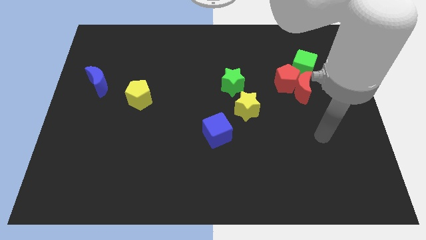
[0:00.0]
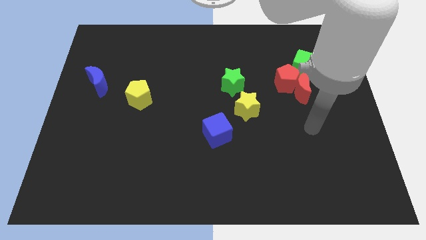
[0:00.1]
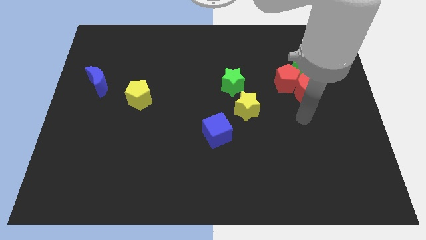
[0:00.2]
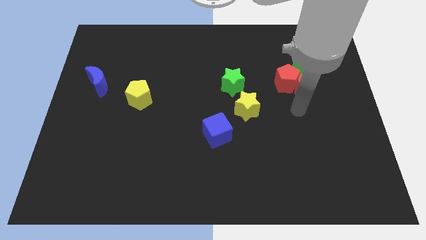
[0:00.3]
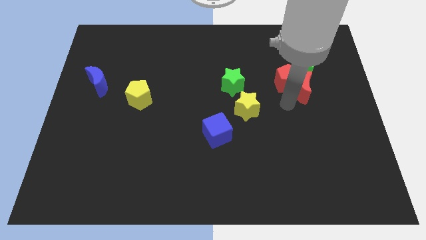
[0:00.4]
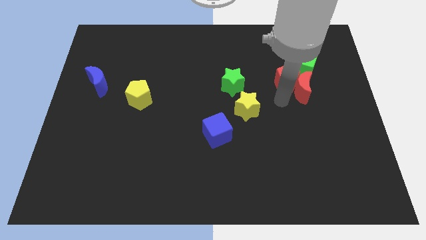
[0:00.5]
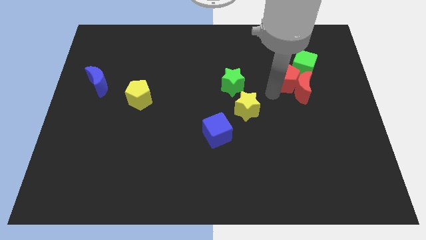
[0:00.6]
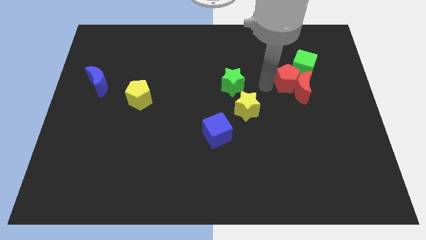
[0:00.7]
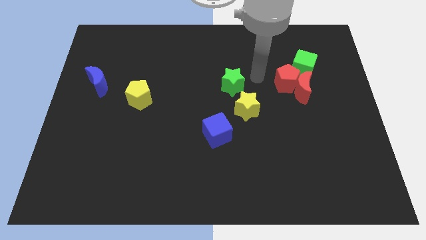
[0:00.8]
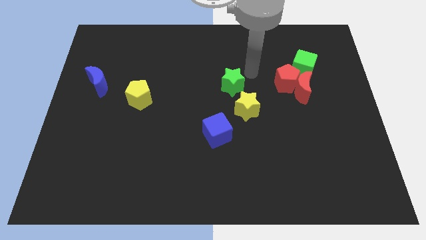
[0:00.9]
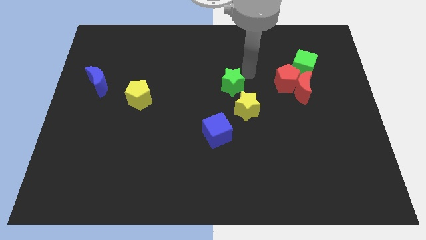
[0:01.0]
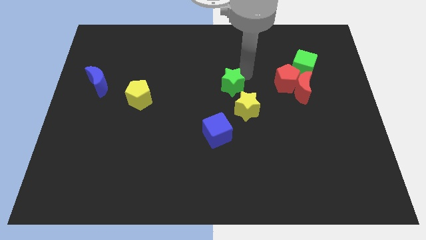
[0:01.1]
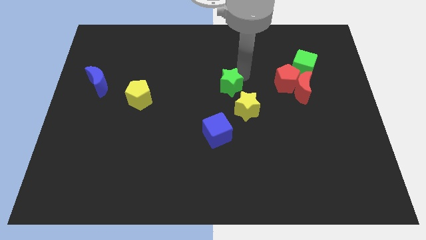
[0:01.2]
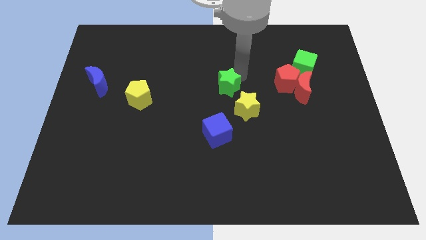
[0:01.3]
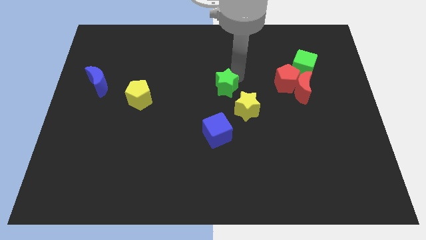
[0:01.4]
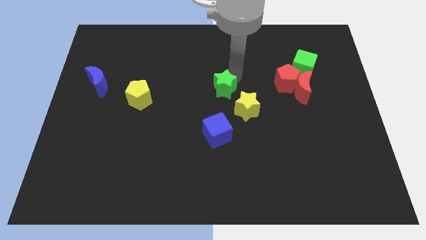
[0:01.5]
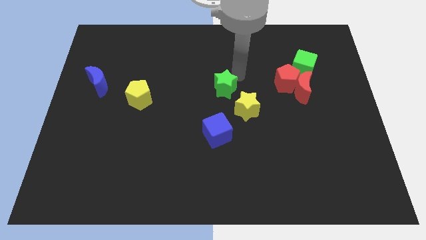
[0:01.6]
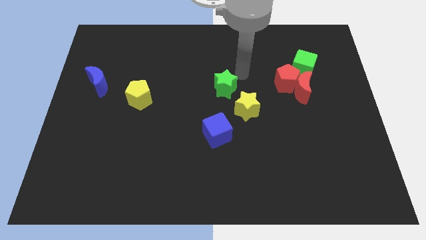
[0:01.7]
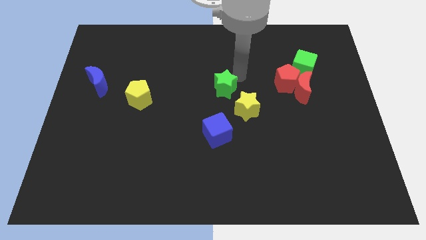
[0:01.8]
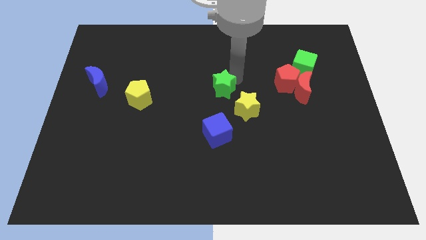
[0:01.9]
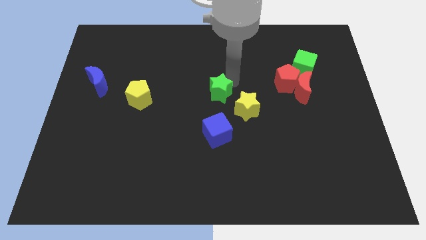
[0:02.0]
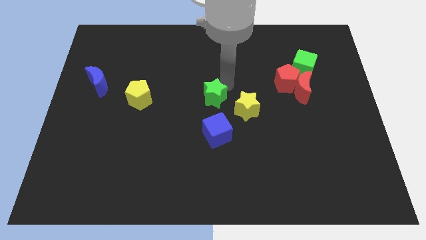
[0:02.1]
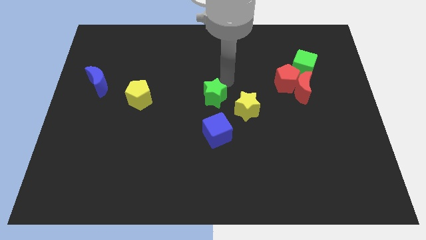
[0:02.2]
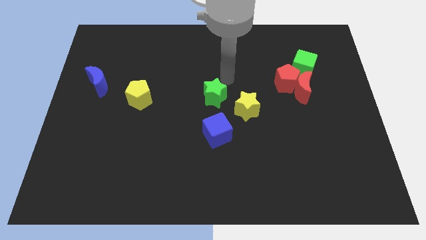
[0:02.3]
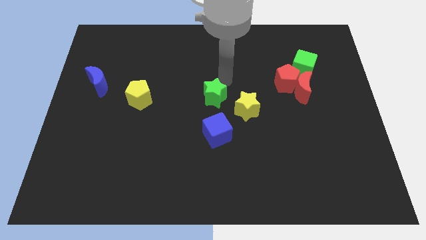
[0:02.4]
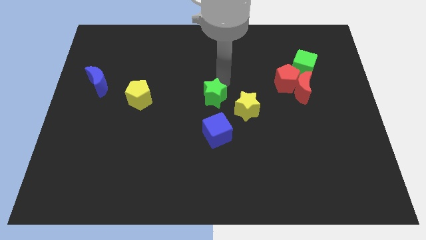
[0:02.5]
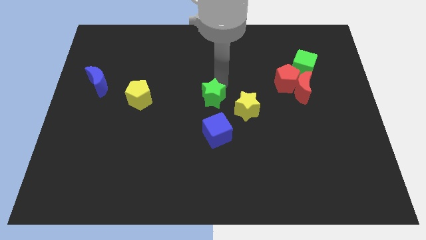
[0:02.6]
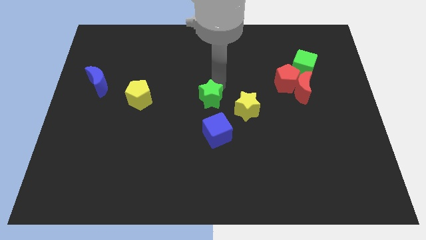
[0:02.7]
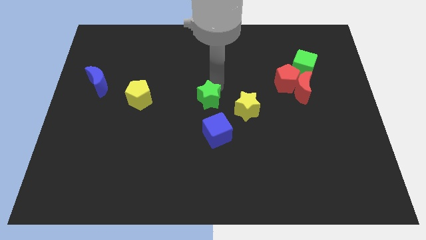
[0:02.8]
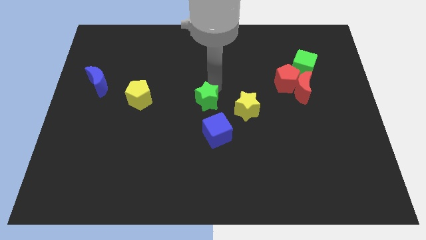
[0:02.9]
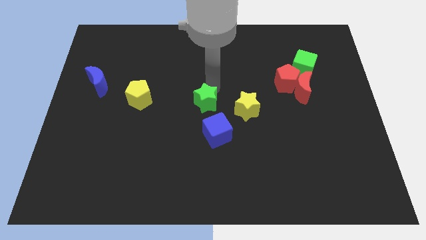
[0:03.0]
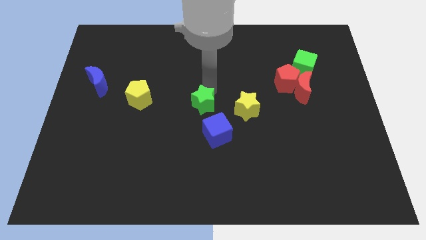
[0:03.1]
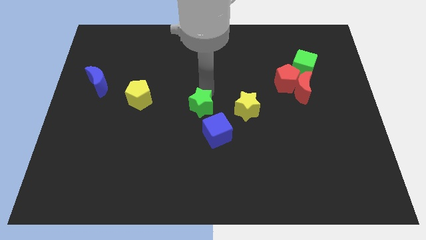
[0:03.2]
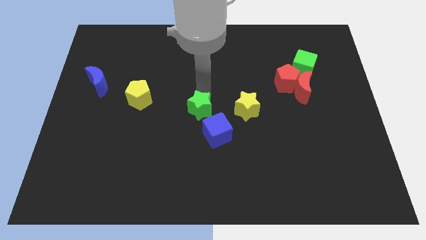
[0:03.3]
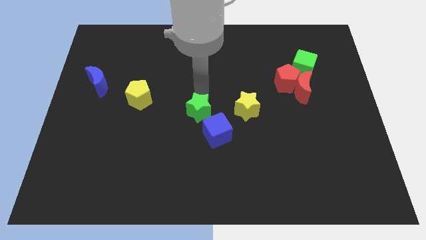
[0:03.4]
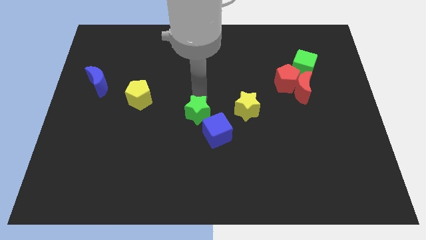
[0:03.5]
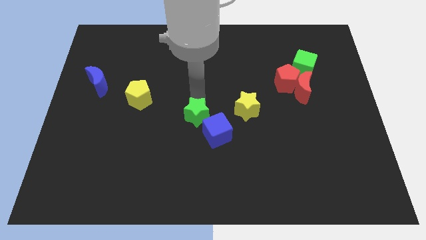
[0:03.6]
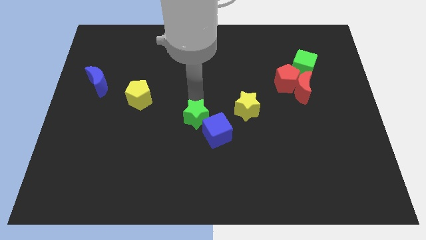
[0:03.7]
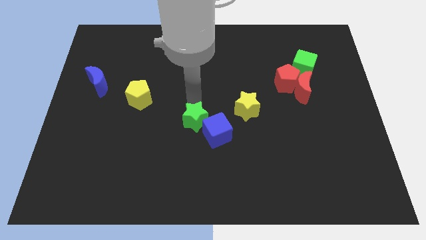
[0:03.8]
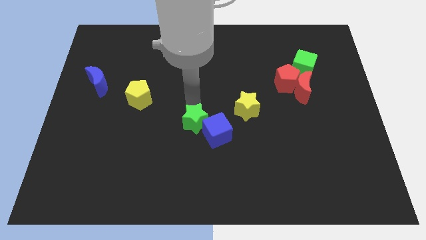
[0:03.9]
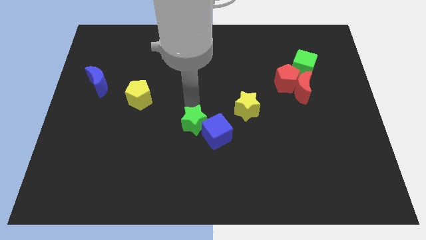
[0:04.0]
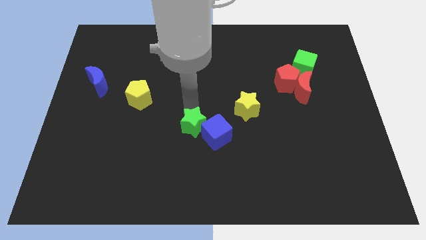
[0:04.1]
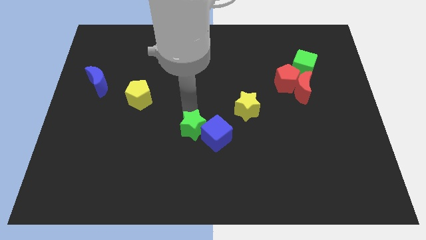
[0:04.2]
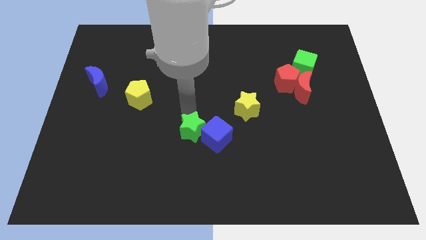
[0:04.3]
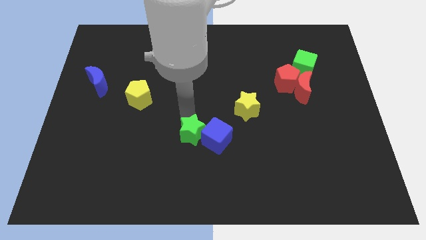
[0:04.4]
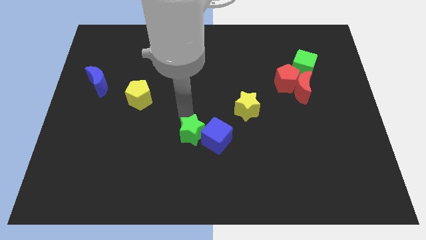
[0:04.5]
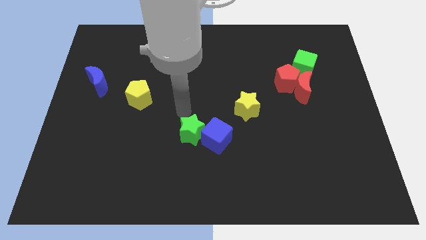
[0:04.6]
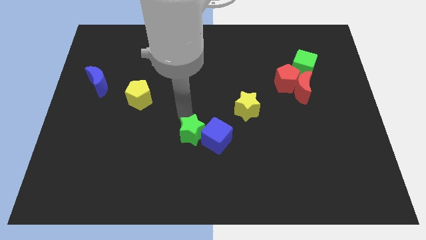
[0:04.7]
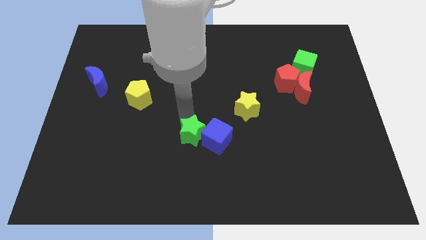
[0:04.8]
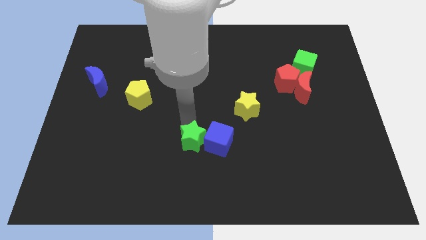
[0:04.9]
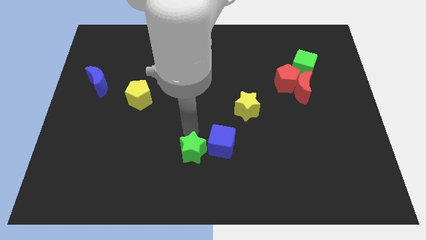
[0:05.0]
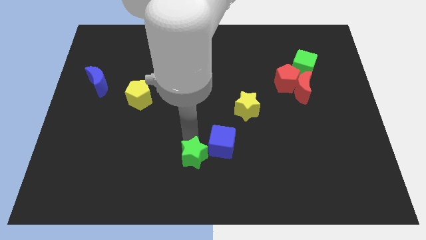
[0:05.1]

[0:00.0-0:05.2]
slide the green star to the bottom
